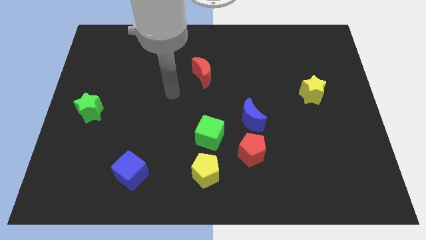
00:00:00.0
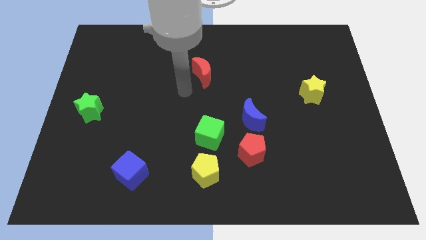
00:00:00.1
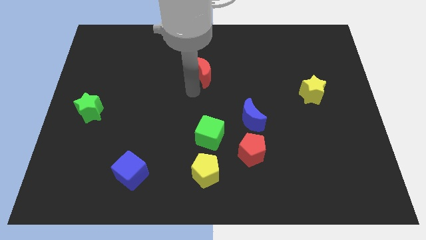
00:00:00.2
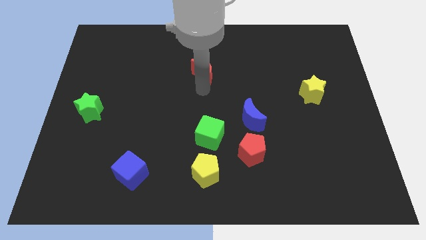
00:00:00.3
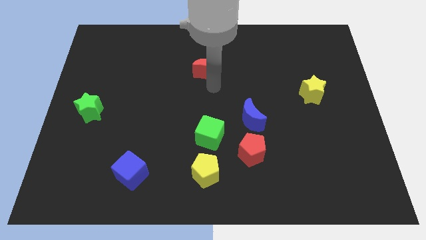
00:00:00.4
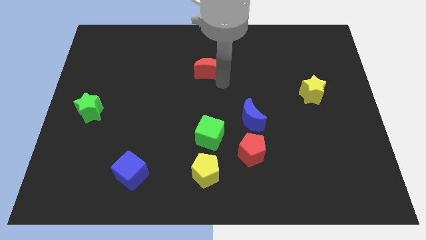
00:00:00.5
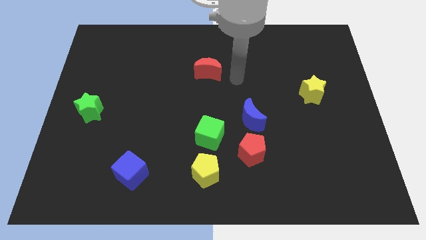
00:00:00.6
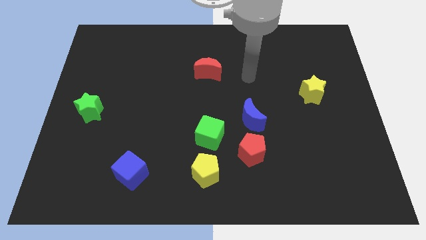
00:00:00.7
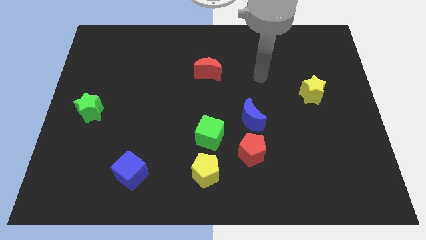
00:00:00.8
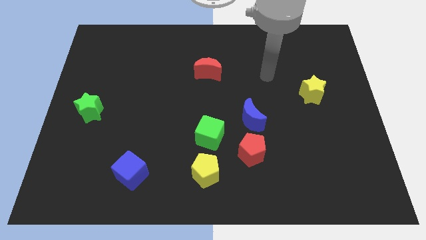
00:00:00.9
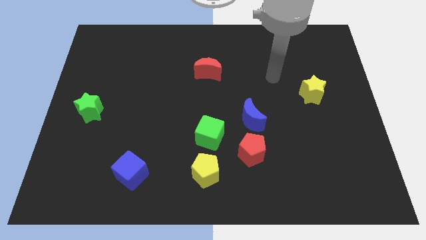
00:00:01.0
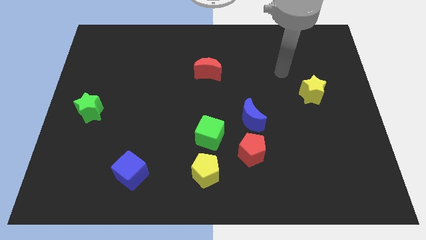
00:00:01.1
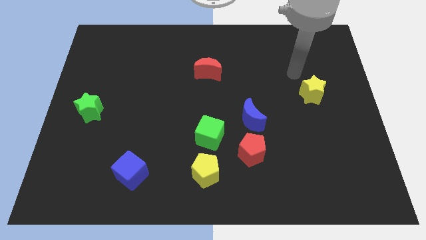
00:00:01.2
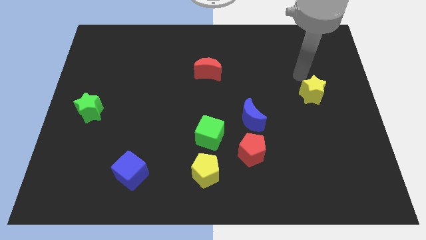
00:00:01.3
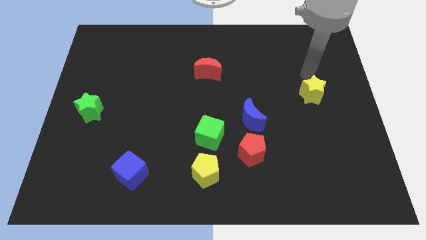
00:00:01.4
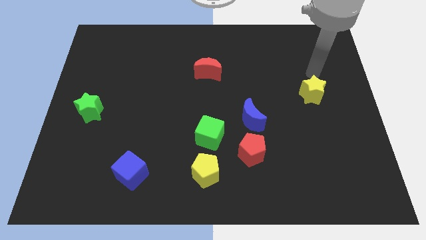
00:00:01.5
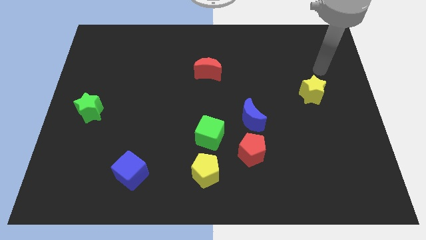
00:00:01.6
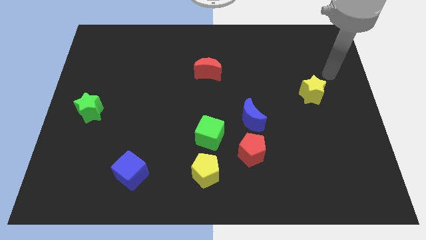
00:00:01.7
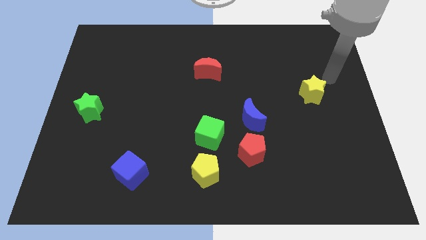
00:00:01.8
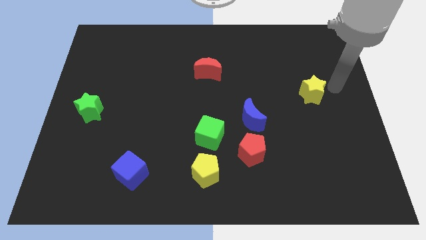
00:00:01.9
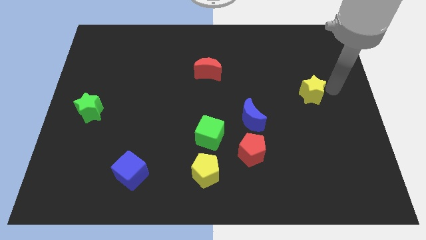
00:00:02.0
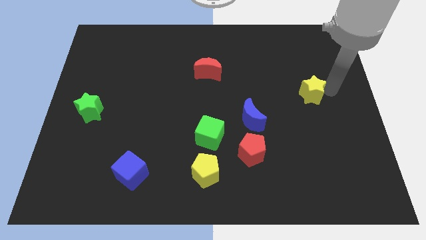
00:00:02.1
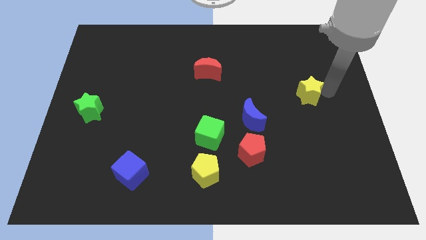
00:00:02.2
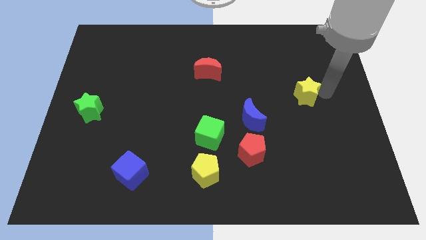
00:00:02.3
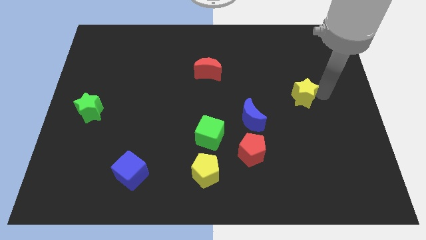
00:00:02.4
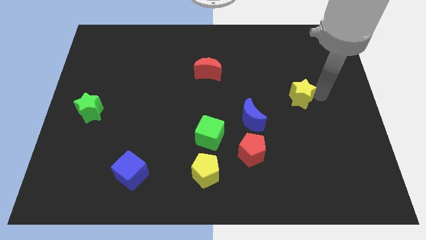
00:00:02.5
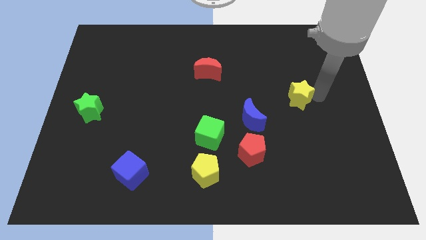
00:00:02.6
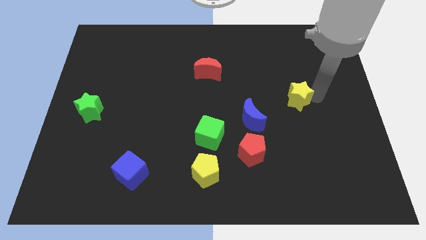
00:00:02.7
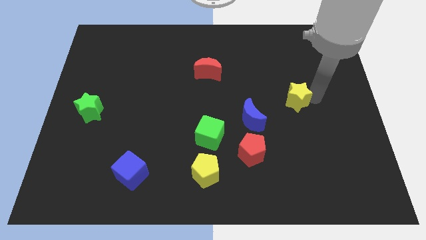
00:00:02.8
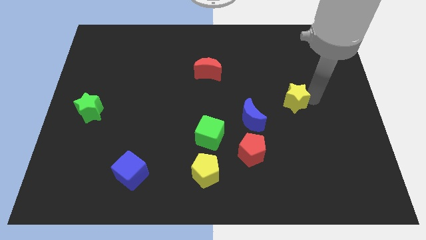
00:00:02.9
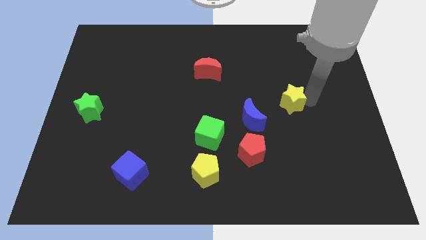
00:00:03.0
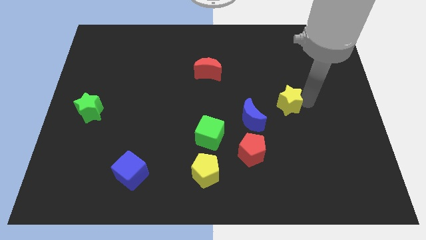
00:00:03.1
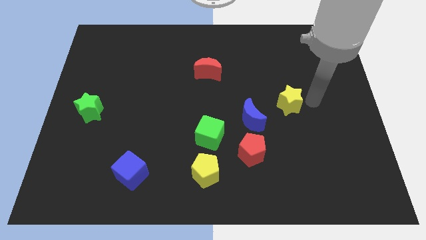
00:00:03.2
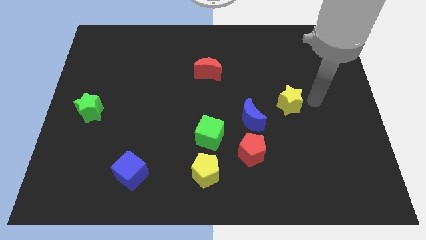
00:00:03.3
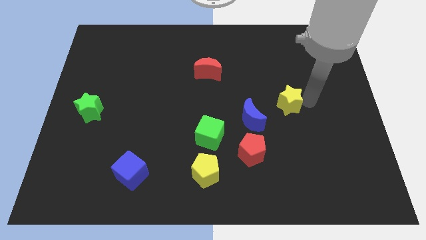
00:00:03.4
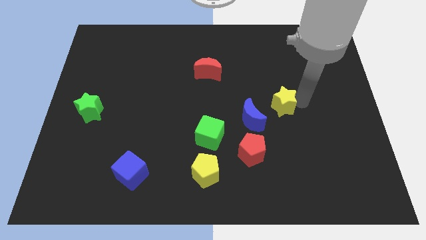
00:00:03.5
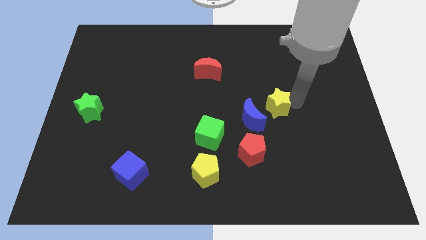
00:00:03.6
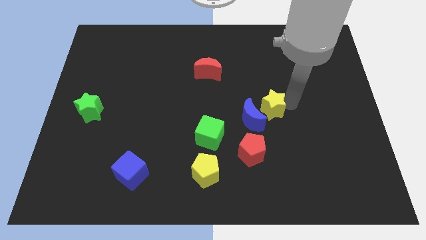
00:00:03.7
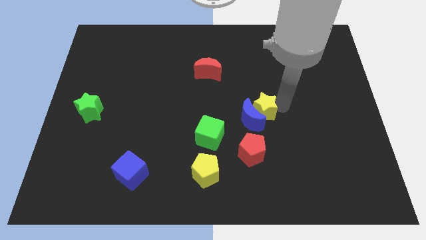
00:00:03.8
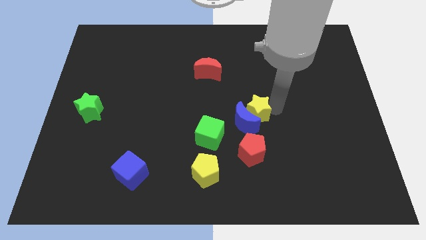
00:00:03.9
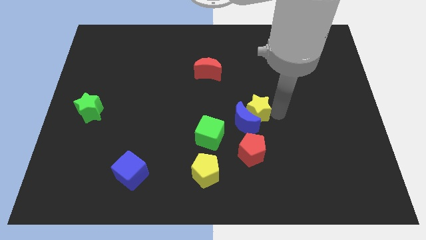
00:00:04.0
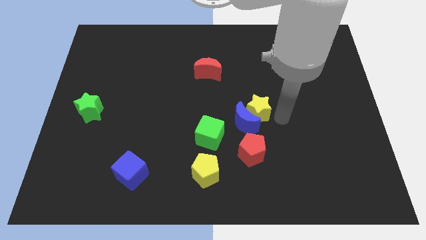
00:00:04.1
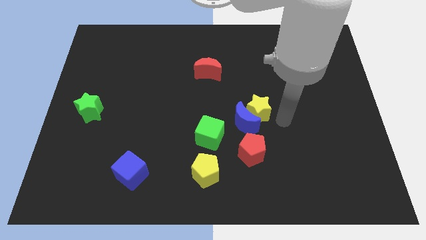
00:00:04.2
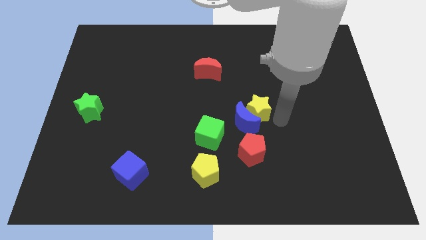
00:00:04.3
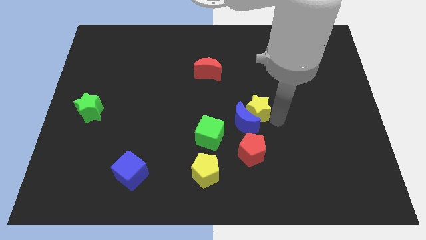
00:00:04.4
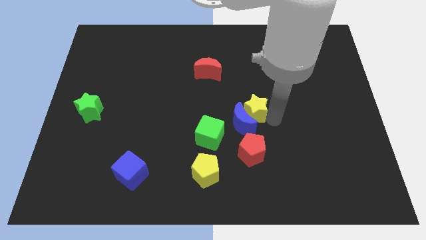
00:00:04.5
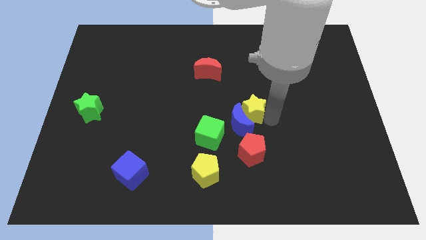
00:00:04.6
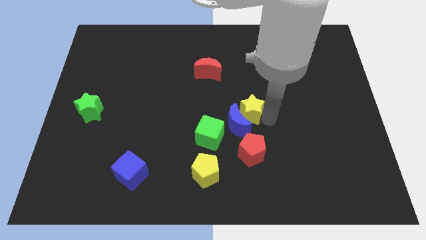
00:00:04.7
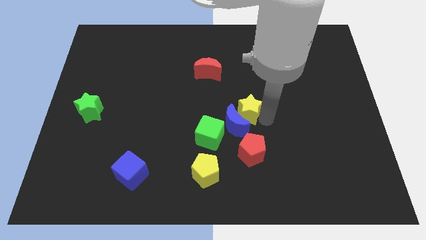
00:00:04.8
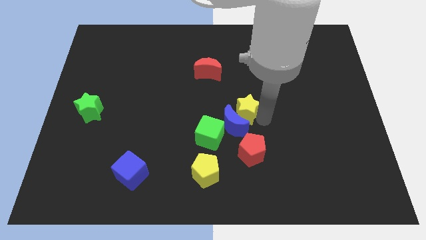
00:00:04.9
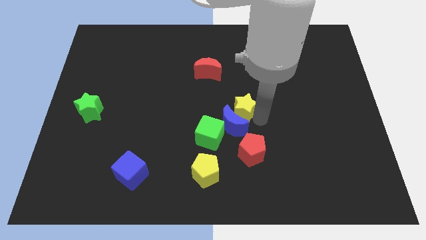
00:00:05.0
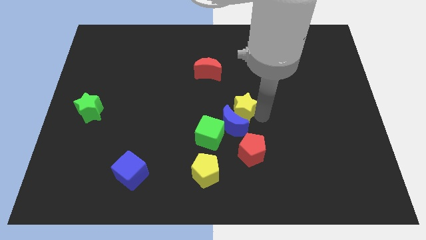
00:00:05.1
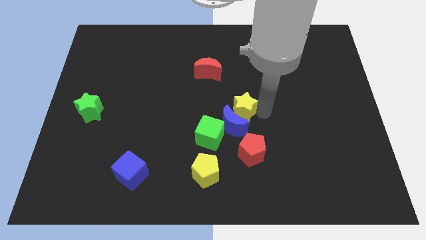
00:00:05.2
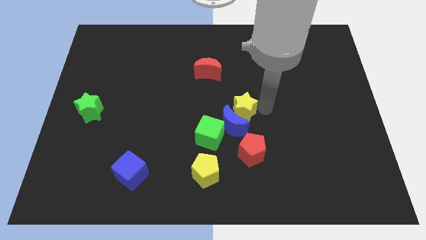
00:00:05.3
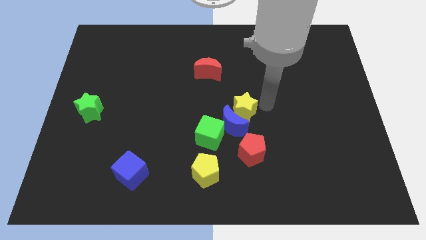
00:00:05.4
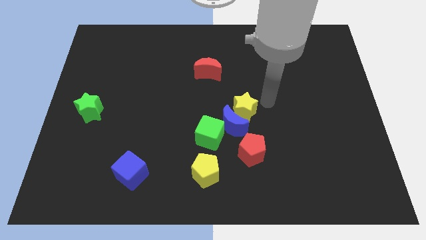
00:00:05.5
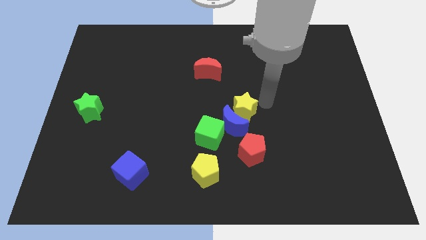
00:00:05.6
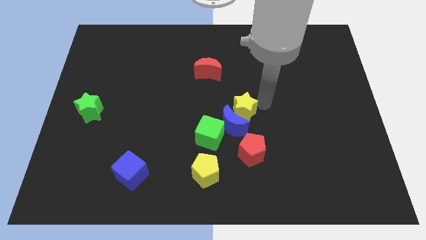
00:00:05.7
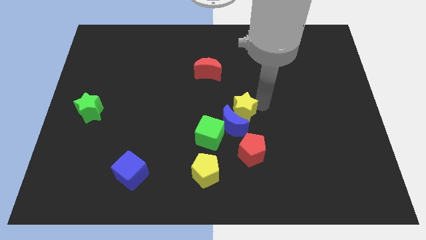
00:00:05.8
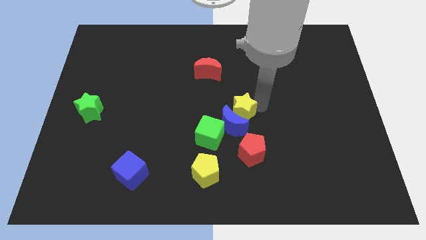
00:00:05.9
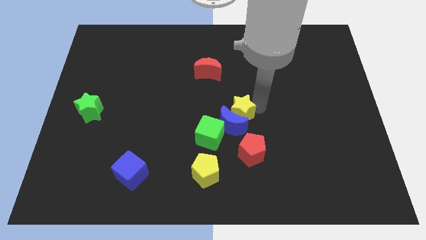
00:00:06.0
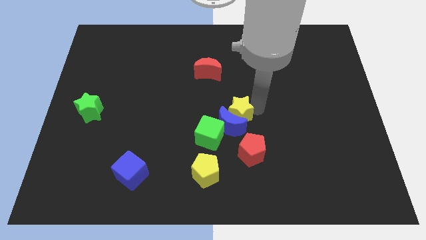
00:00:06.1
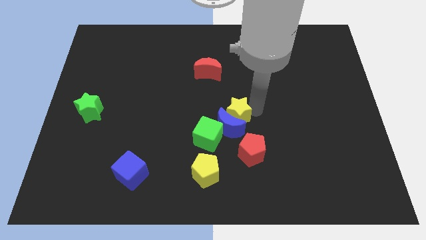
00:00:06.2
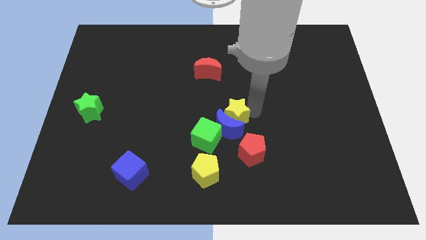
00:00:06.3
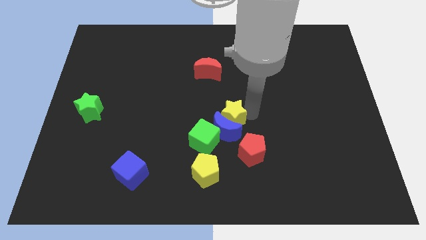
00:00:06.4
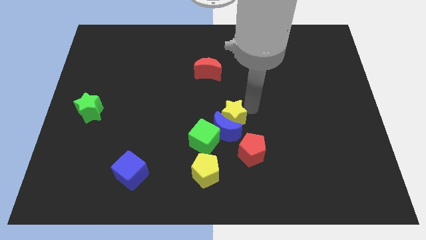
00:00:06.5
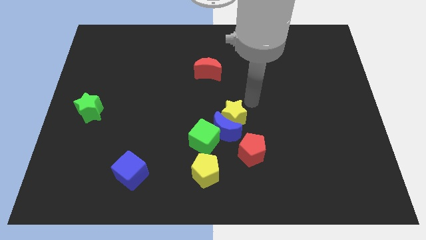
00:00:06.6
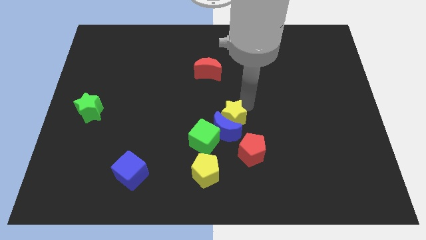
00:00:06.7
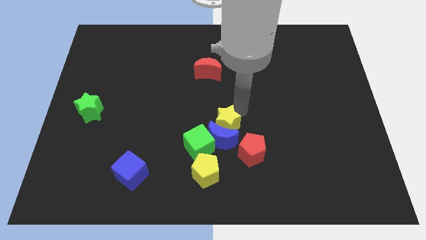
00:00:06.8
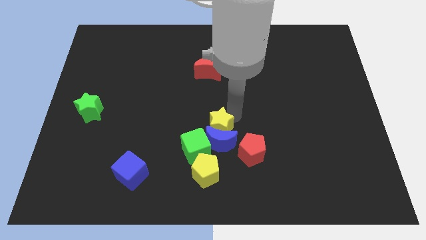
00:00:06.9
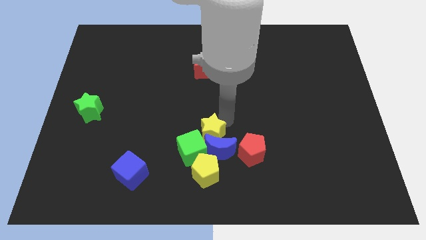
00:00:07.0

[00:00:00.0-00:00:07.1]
slide the yellow star close to the green cube

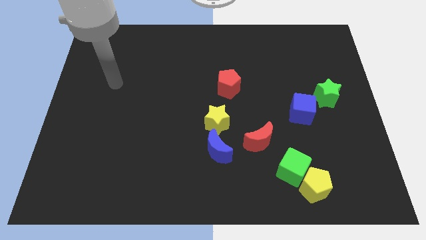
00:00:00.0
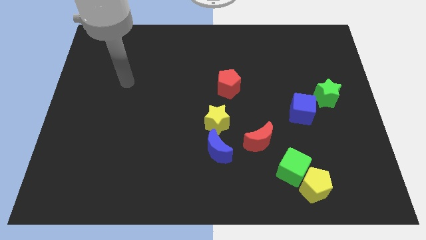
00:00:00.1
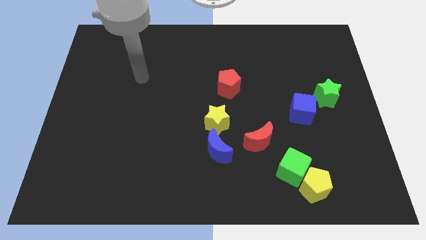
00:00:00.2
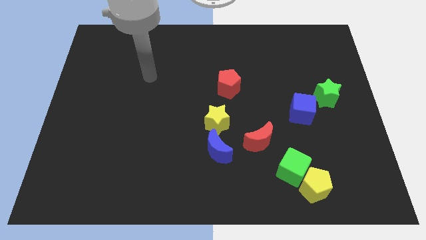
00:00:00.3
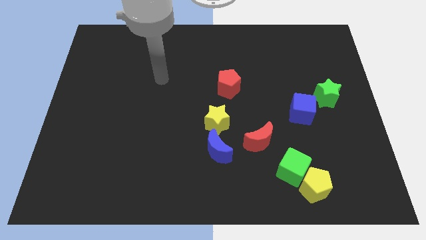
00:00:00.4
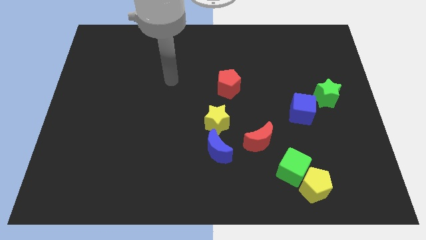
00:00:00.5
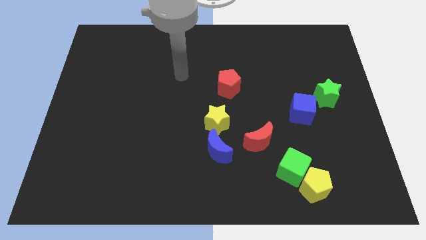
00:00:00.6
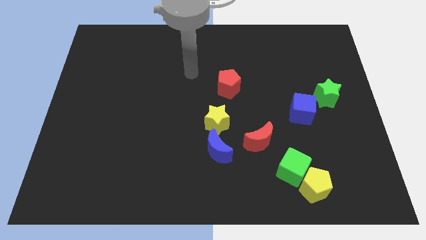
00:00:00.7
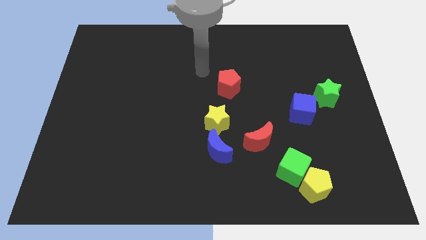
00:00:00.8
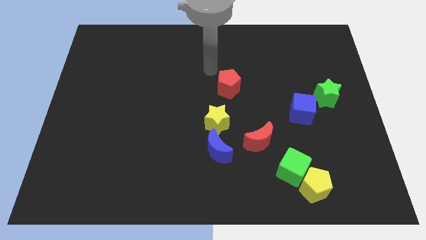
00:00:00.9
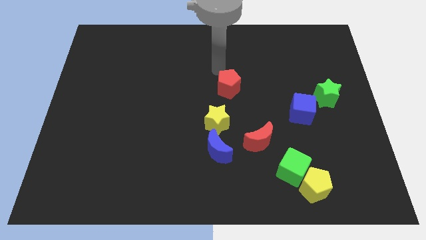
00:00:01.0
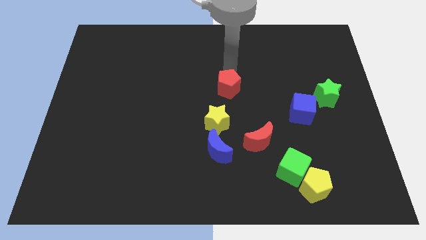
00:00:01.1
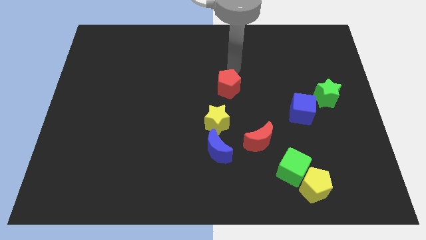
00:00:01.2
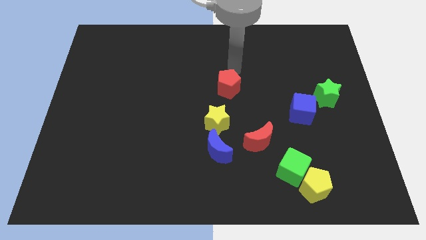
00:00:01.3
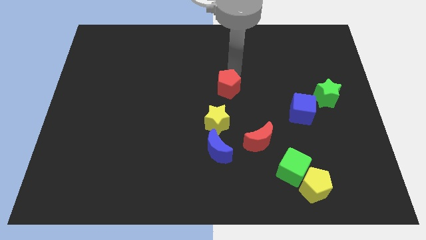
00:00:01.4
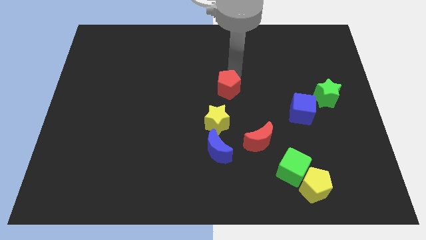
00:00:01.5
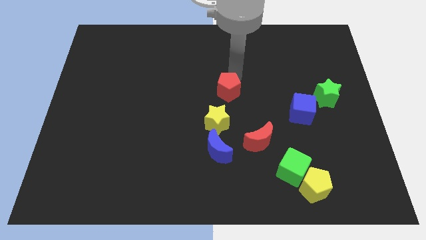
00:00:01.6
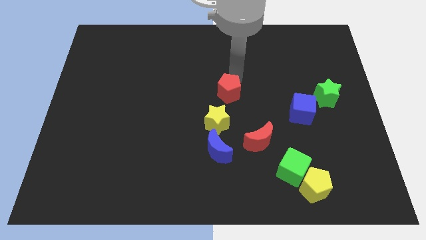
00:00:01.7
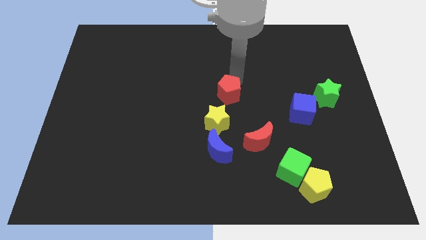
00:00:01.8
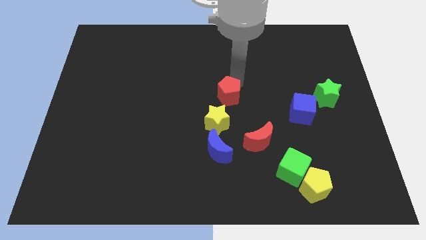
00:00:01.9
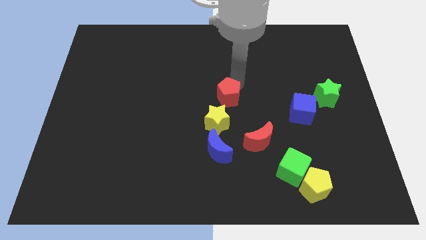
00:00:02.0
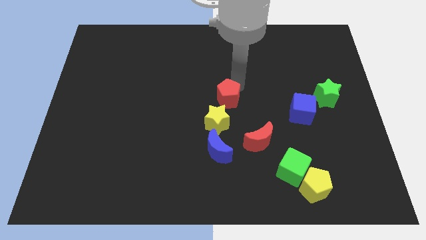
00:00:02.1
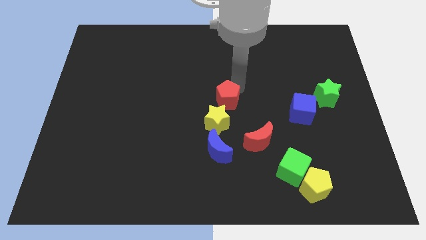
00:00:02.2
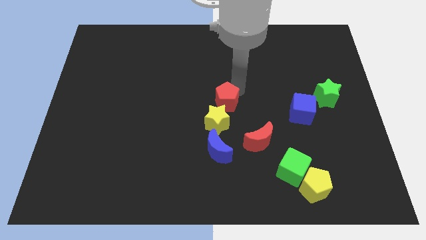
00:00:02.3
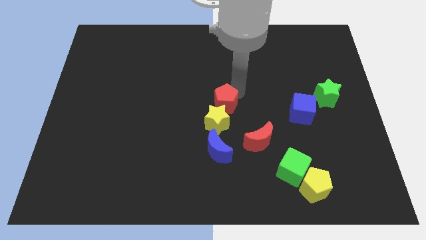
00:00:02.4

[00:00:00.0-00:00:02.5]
push the red pentagon towards the yellow star
